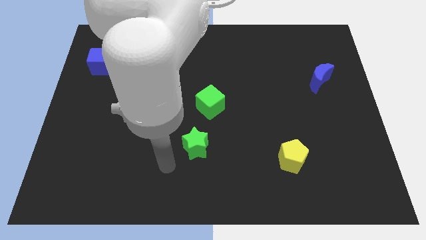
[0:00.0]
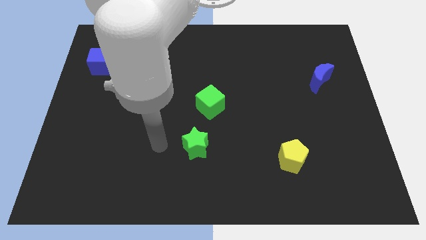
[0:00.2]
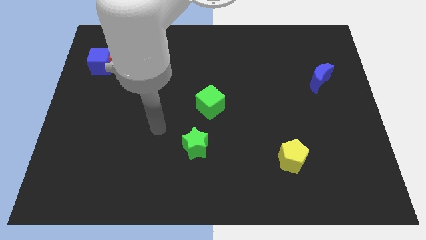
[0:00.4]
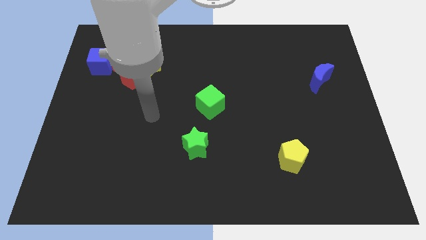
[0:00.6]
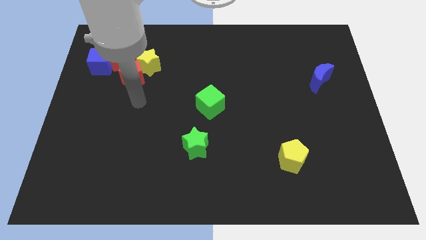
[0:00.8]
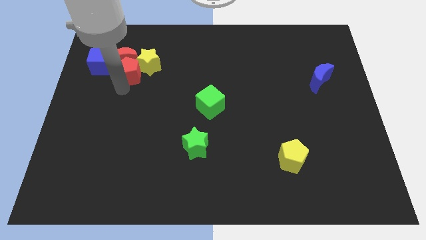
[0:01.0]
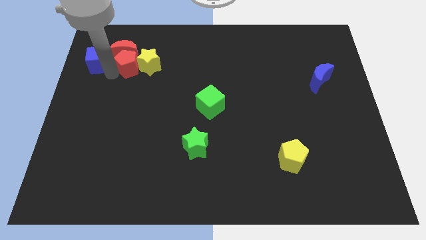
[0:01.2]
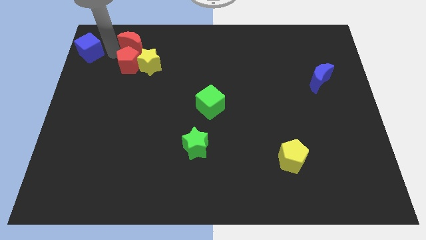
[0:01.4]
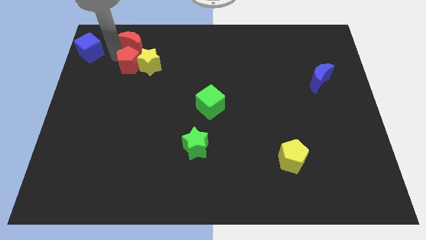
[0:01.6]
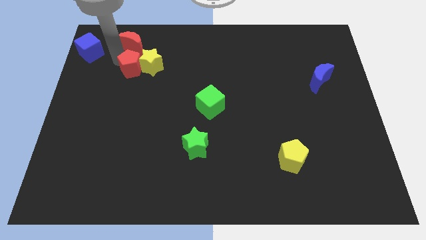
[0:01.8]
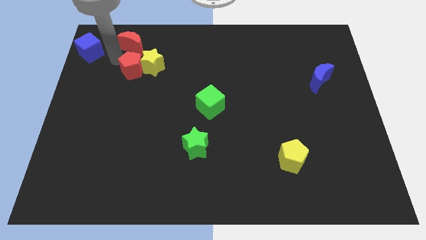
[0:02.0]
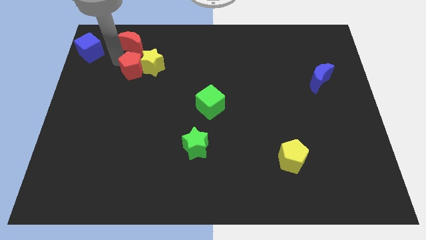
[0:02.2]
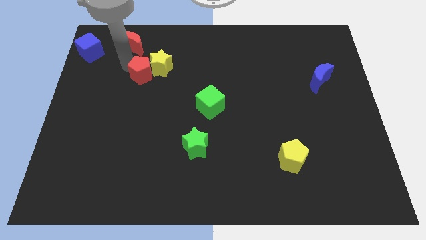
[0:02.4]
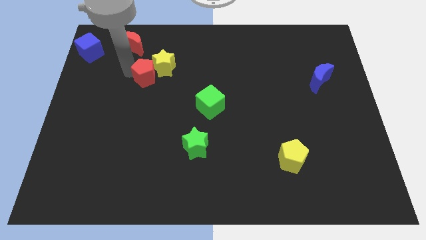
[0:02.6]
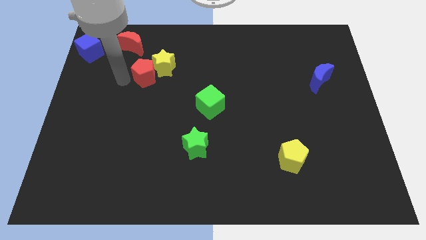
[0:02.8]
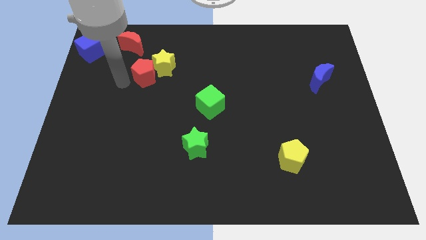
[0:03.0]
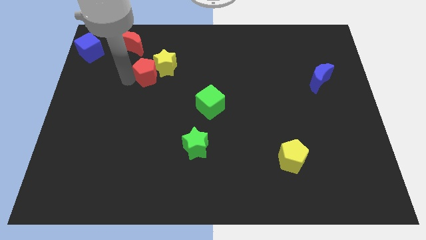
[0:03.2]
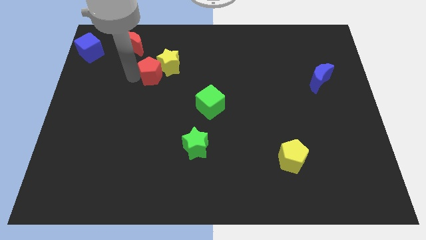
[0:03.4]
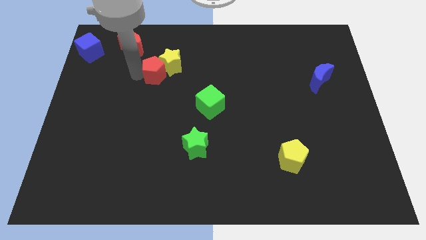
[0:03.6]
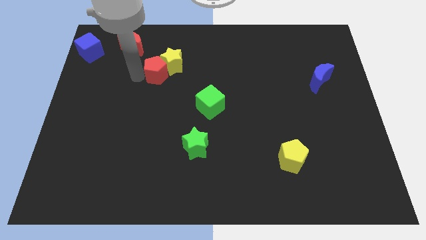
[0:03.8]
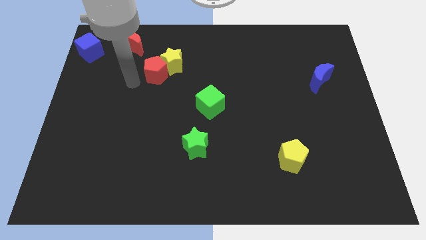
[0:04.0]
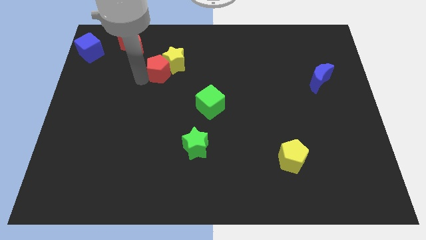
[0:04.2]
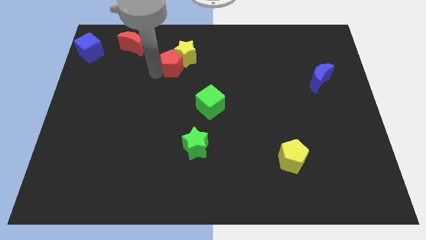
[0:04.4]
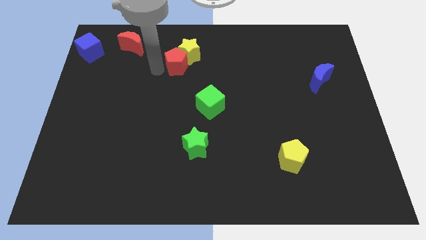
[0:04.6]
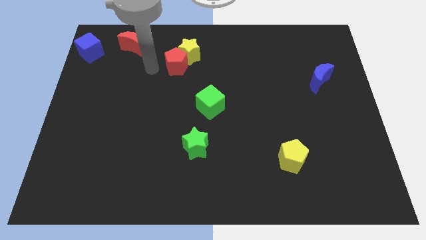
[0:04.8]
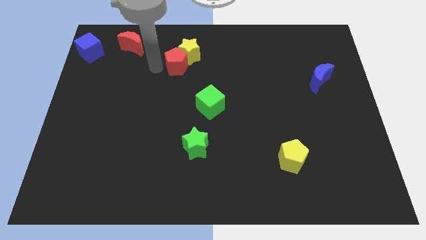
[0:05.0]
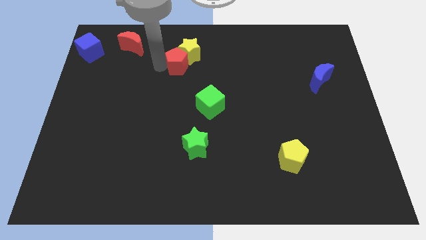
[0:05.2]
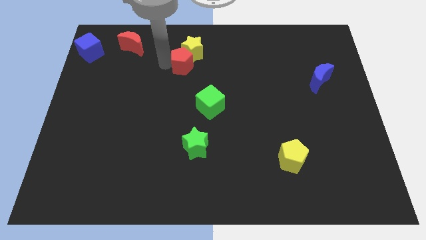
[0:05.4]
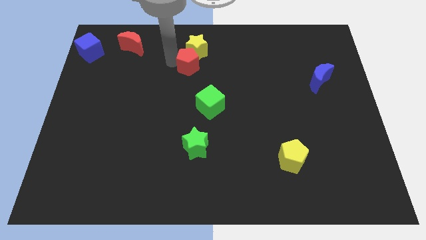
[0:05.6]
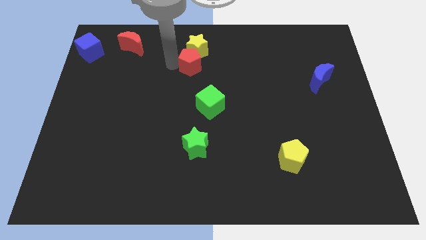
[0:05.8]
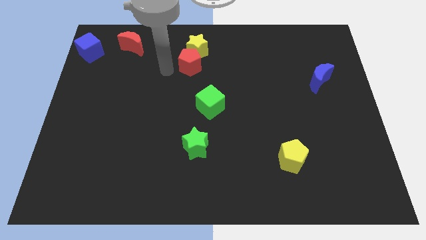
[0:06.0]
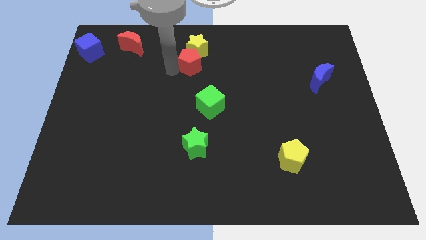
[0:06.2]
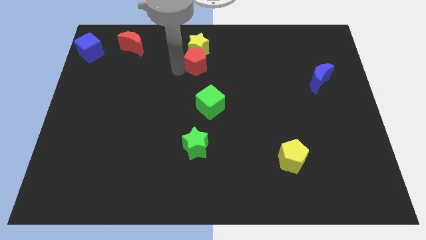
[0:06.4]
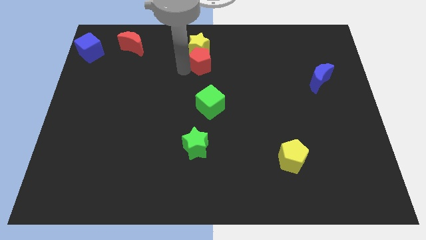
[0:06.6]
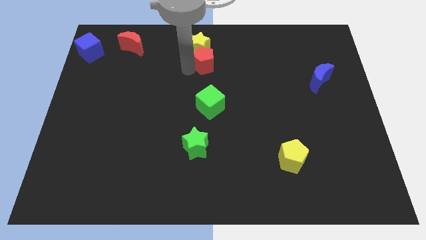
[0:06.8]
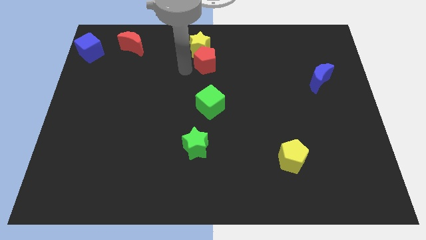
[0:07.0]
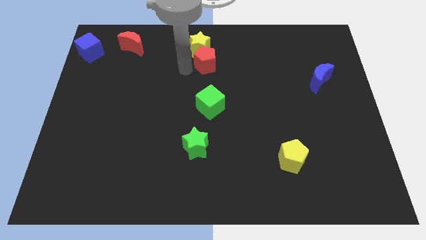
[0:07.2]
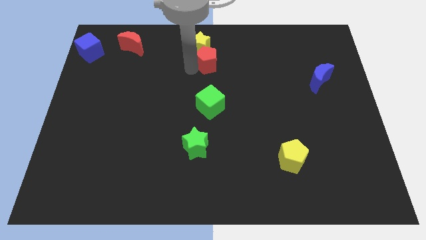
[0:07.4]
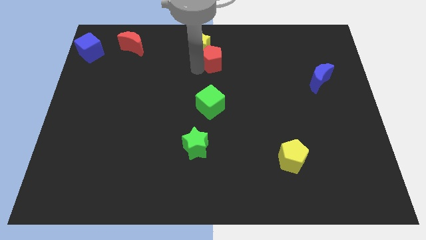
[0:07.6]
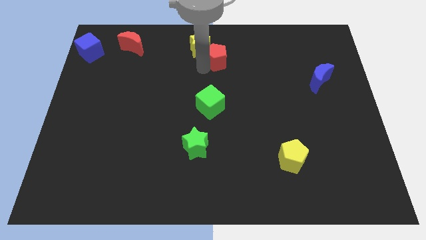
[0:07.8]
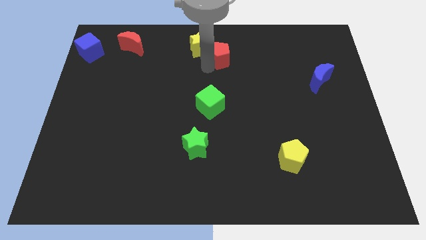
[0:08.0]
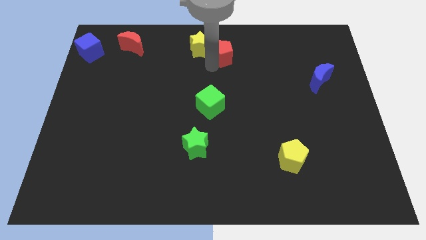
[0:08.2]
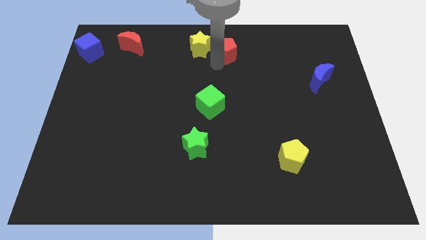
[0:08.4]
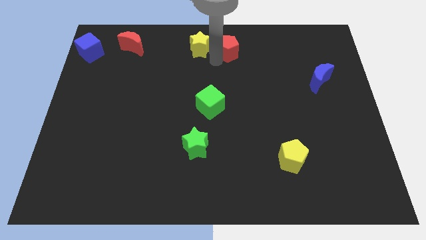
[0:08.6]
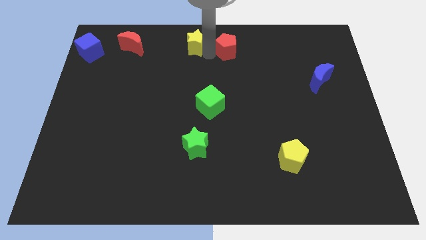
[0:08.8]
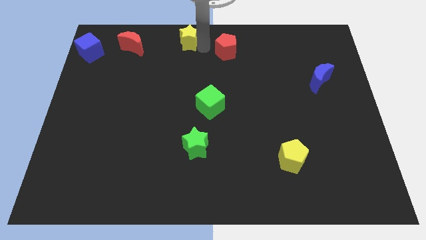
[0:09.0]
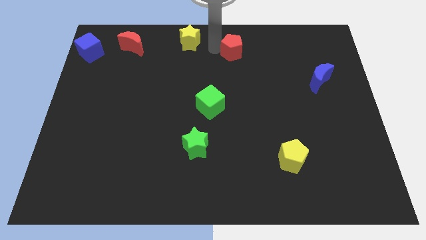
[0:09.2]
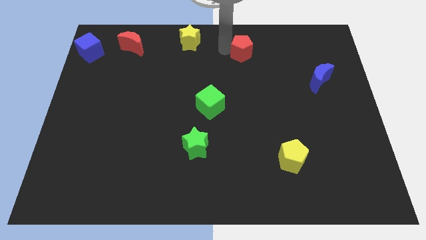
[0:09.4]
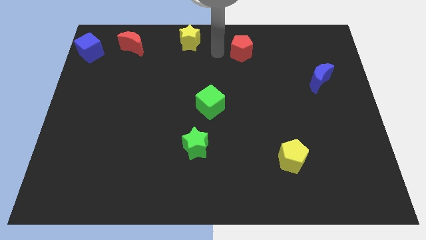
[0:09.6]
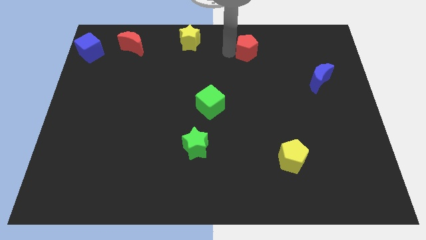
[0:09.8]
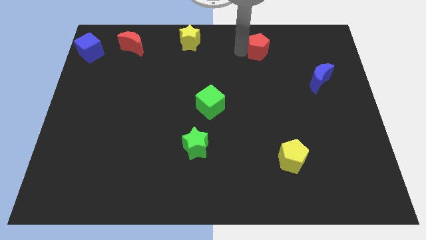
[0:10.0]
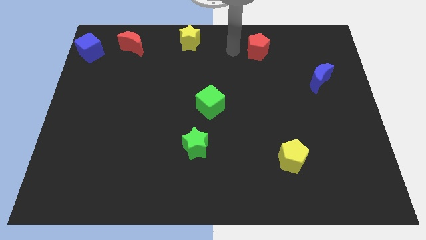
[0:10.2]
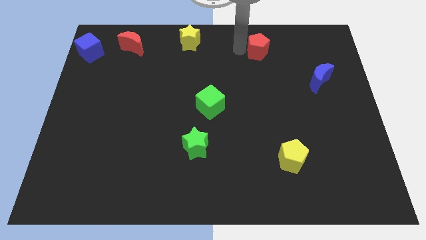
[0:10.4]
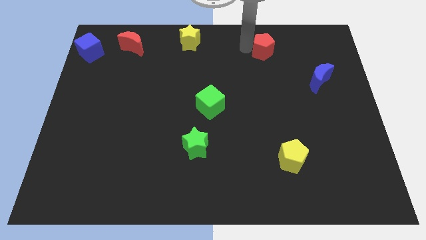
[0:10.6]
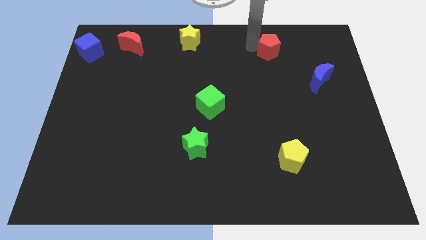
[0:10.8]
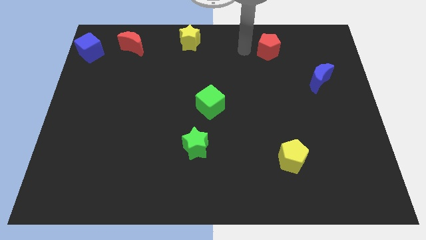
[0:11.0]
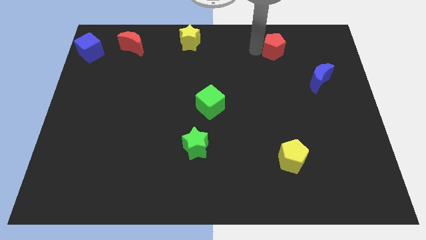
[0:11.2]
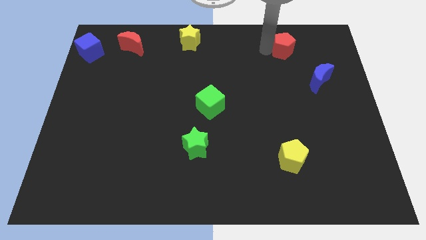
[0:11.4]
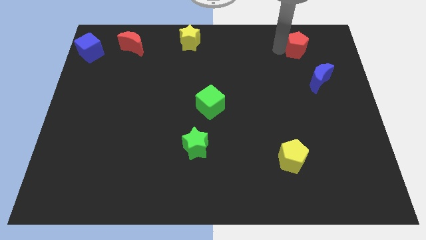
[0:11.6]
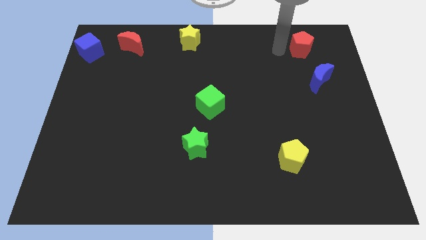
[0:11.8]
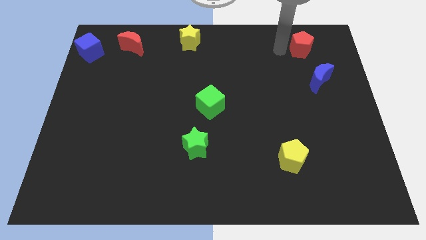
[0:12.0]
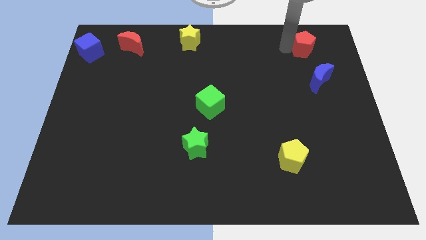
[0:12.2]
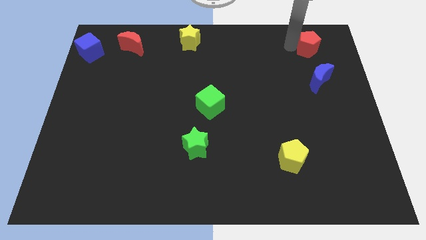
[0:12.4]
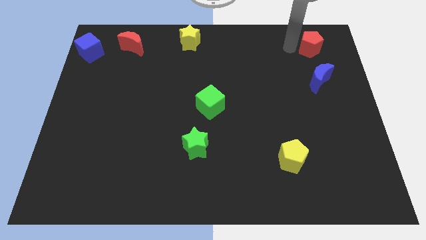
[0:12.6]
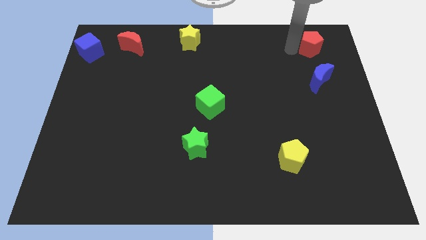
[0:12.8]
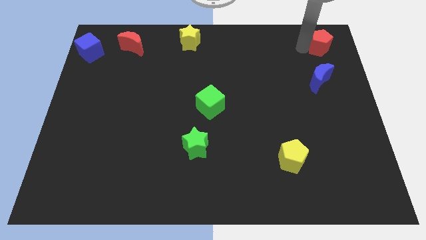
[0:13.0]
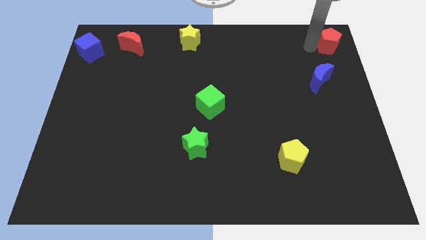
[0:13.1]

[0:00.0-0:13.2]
slide the red pentagon to the upper right corner
